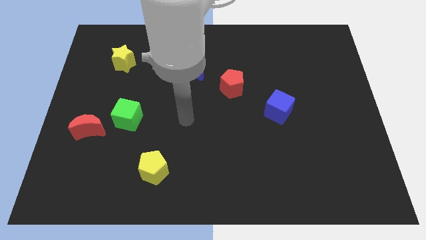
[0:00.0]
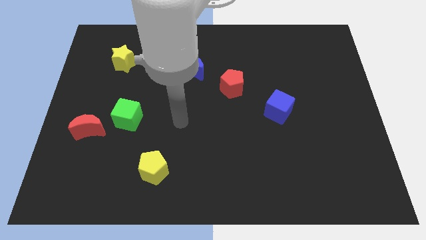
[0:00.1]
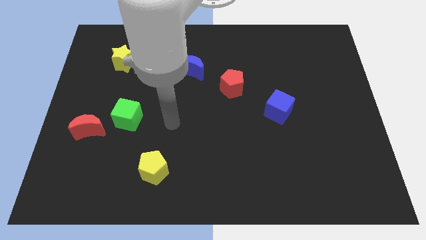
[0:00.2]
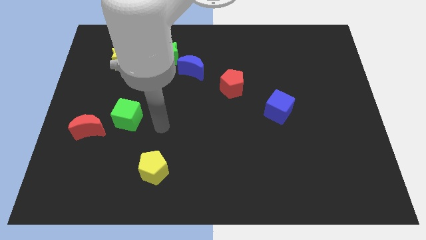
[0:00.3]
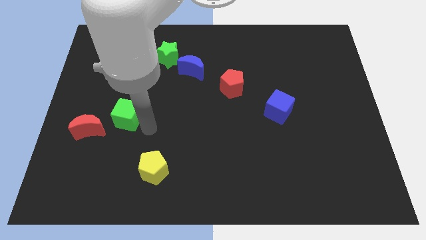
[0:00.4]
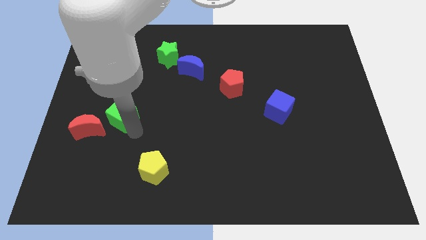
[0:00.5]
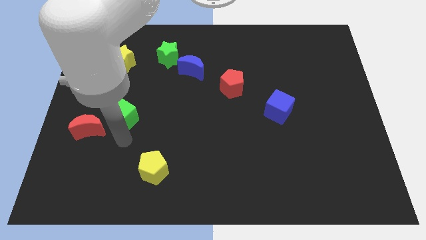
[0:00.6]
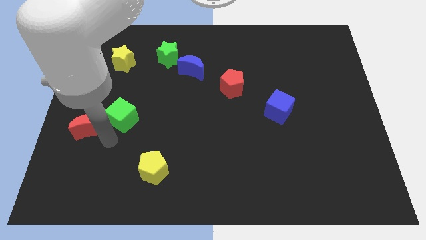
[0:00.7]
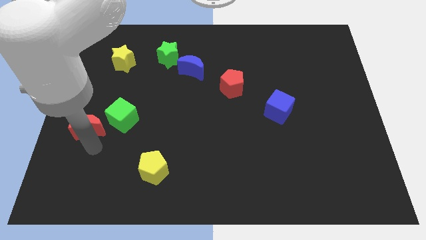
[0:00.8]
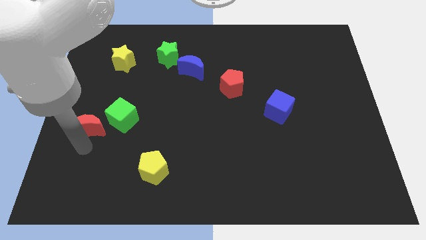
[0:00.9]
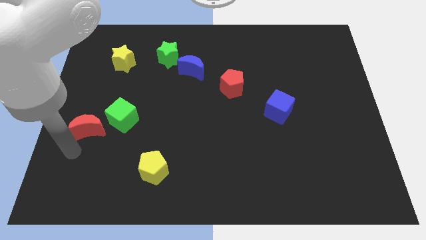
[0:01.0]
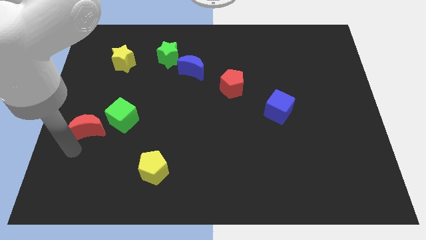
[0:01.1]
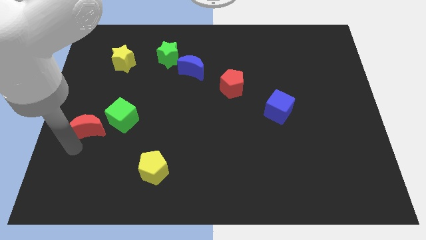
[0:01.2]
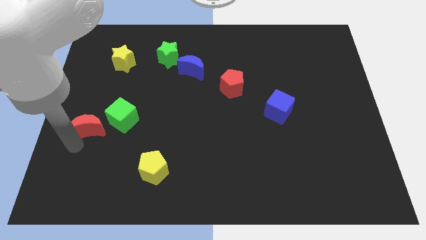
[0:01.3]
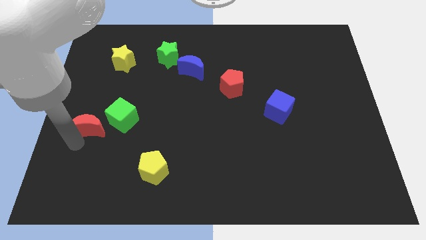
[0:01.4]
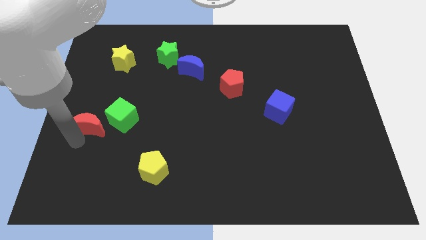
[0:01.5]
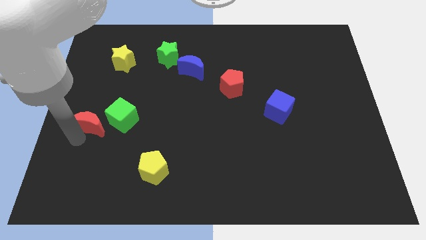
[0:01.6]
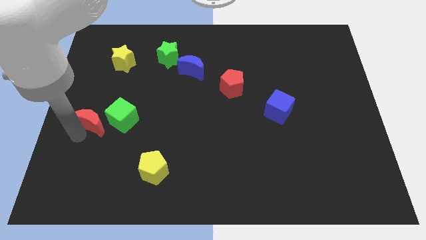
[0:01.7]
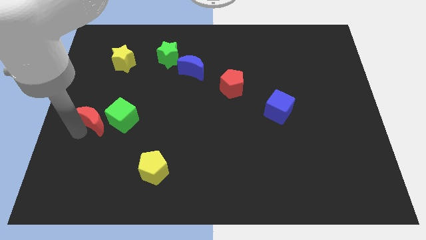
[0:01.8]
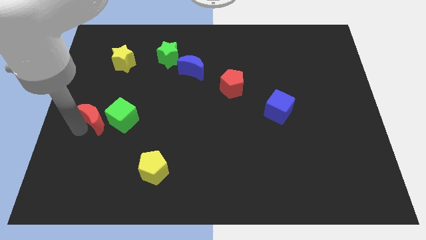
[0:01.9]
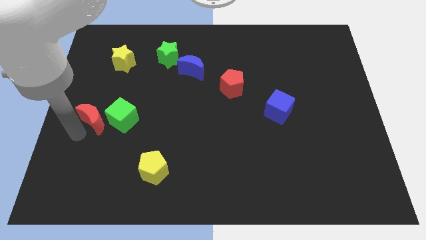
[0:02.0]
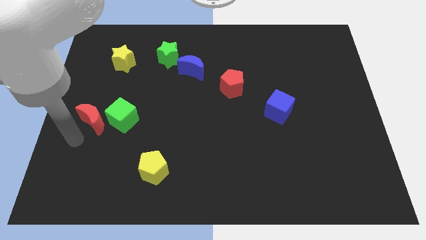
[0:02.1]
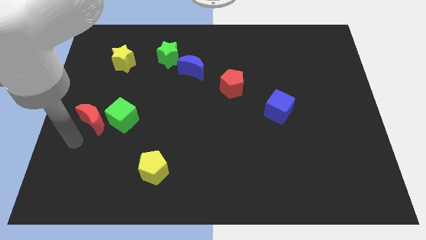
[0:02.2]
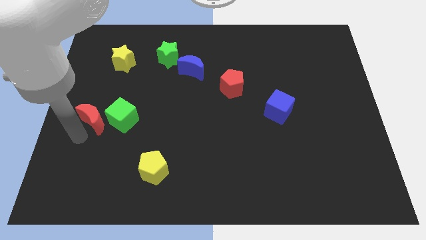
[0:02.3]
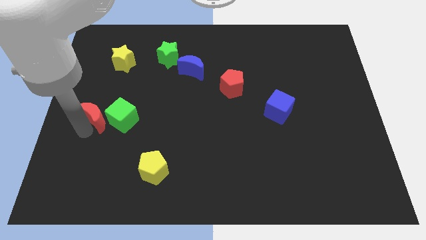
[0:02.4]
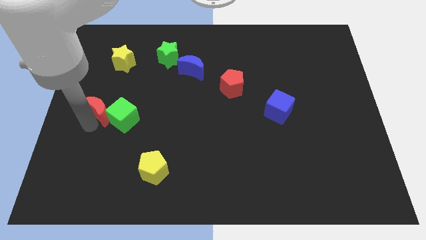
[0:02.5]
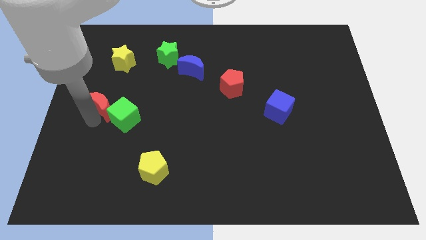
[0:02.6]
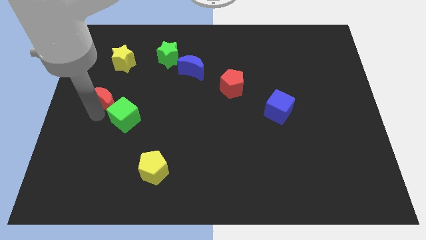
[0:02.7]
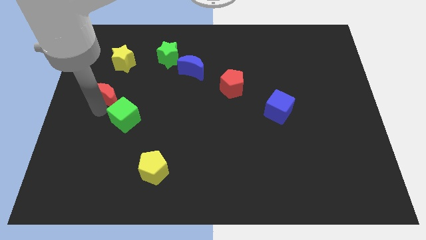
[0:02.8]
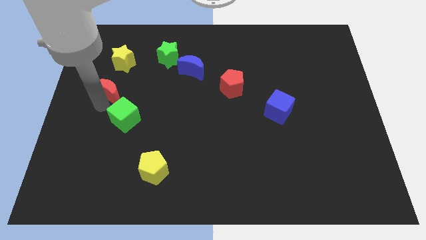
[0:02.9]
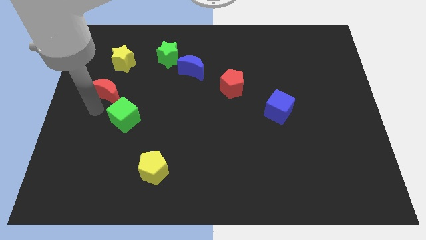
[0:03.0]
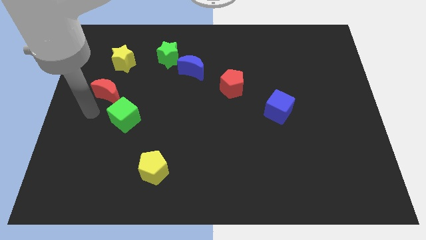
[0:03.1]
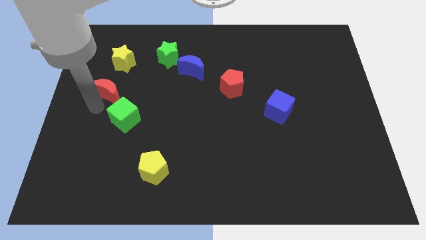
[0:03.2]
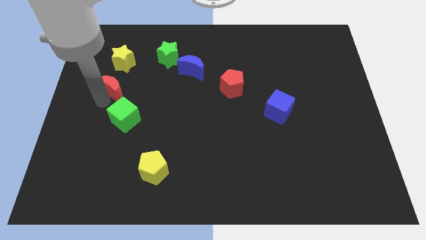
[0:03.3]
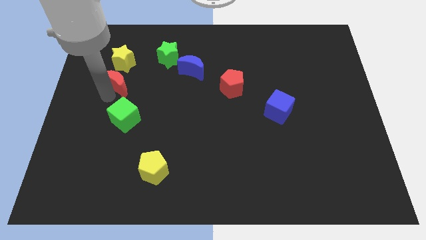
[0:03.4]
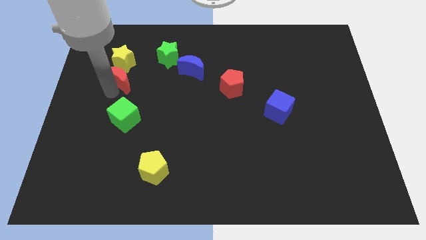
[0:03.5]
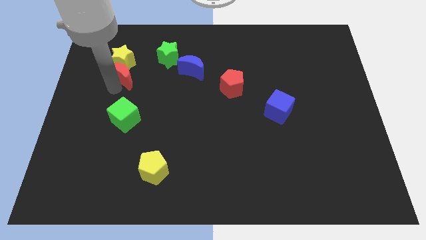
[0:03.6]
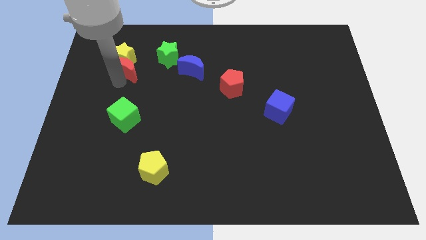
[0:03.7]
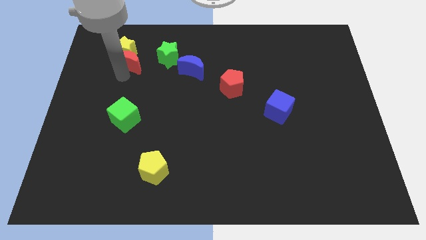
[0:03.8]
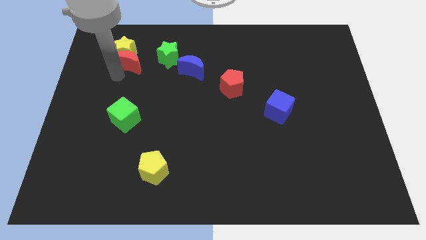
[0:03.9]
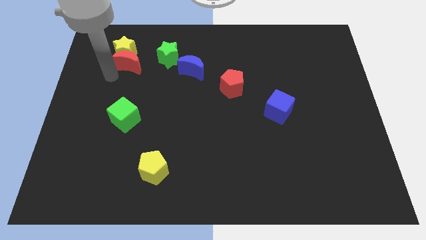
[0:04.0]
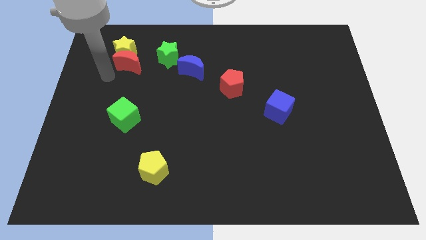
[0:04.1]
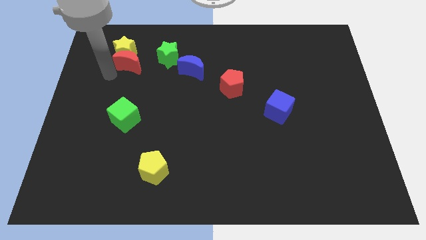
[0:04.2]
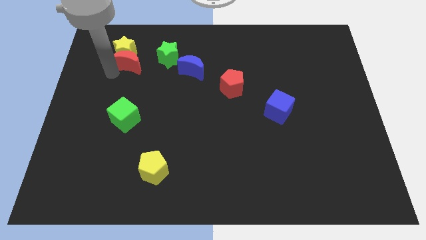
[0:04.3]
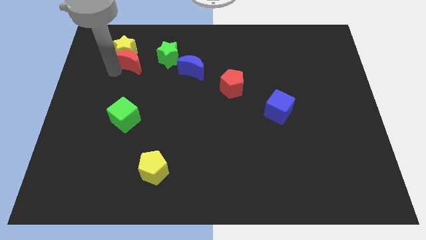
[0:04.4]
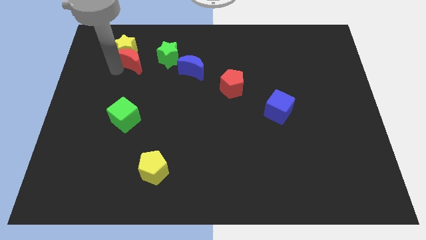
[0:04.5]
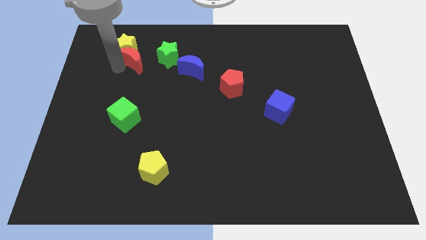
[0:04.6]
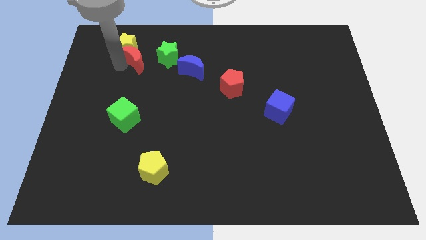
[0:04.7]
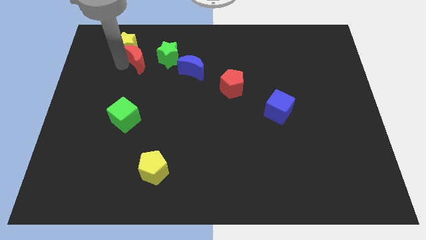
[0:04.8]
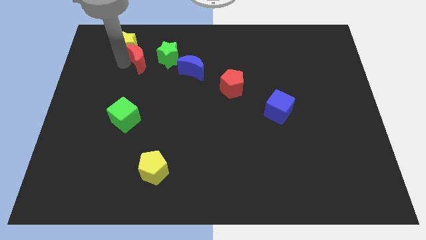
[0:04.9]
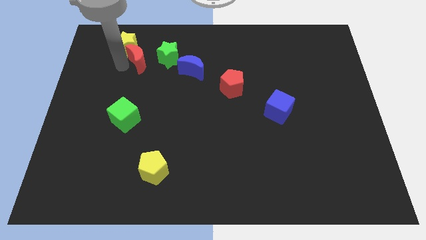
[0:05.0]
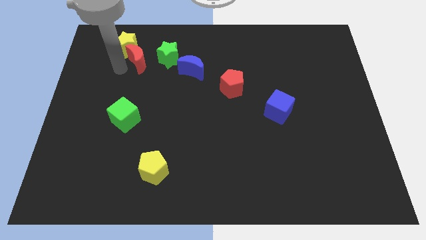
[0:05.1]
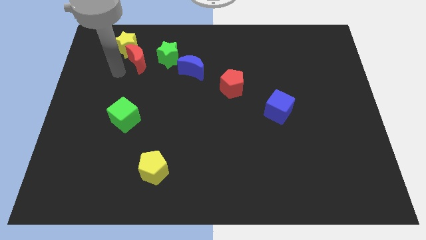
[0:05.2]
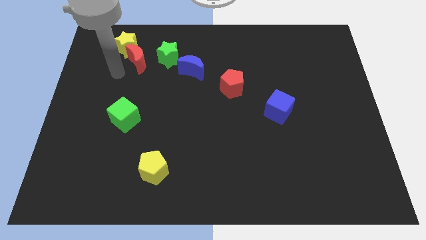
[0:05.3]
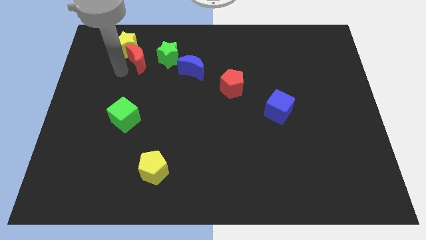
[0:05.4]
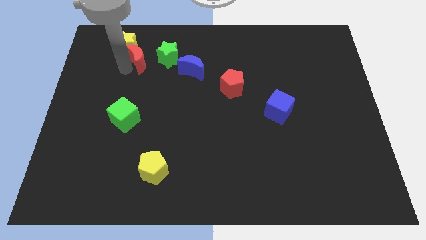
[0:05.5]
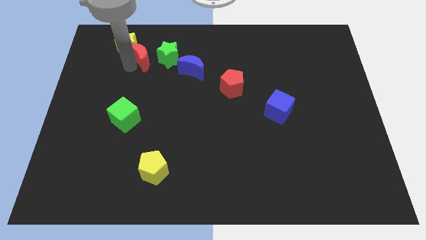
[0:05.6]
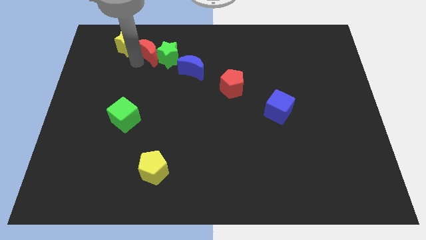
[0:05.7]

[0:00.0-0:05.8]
push the red moon diagonally up and right

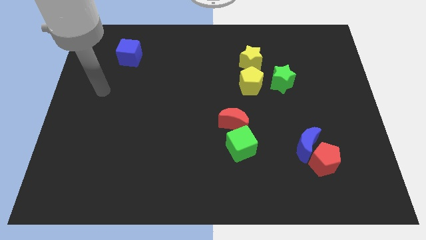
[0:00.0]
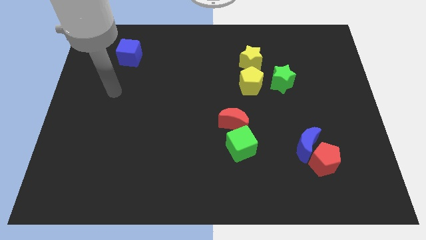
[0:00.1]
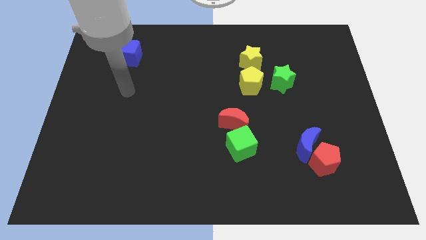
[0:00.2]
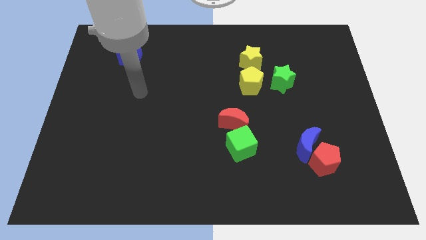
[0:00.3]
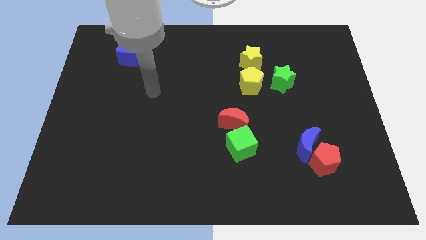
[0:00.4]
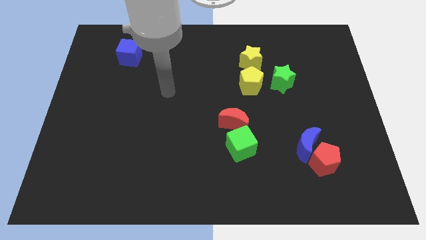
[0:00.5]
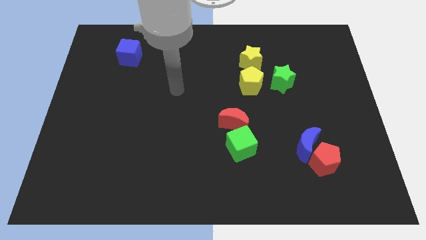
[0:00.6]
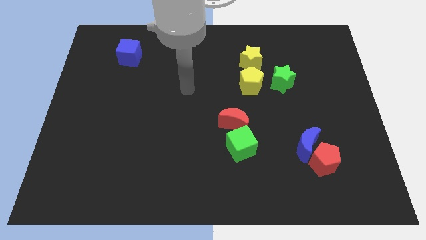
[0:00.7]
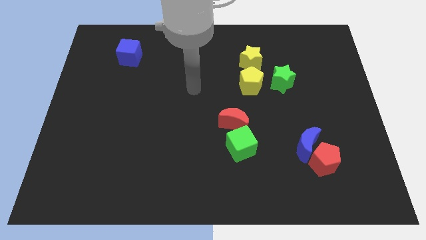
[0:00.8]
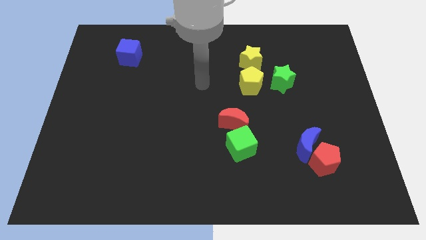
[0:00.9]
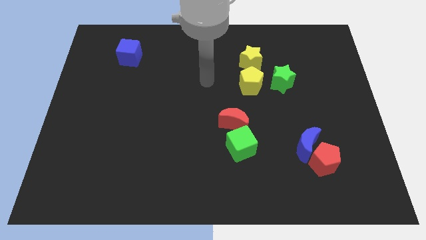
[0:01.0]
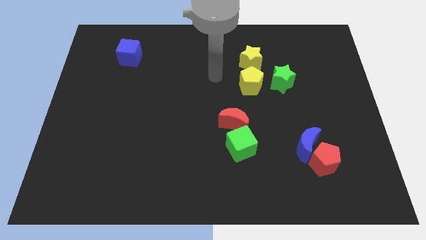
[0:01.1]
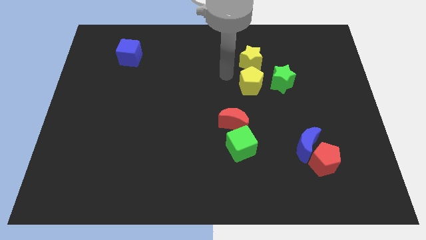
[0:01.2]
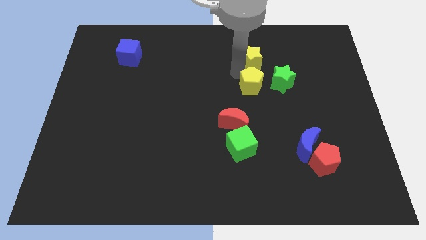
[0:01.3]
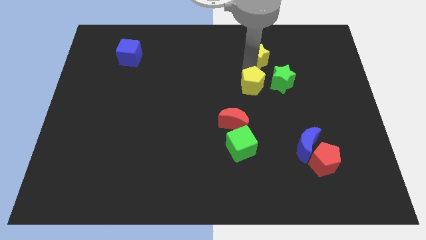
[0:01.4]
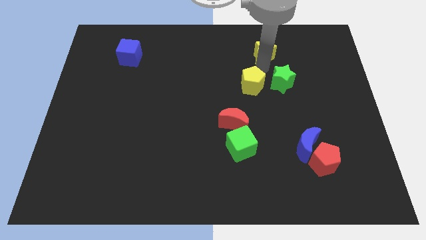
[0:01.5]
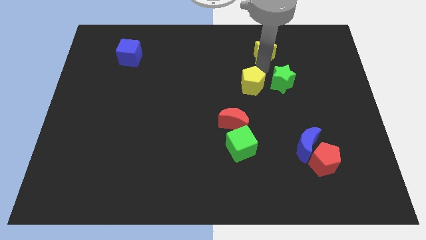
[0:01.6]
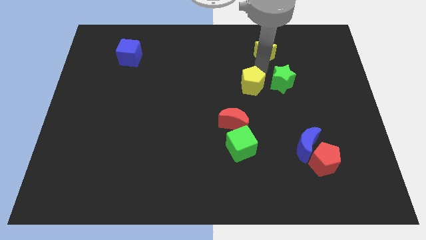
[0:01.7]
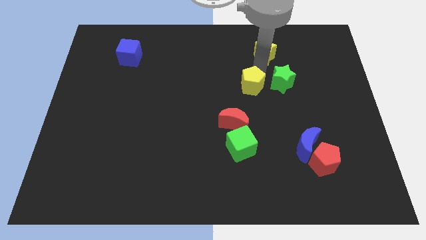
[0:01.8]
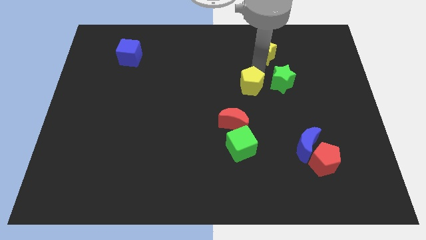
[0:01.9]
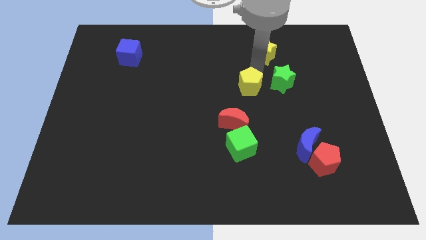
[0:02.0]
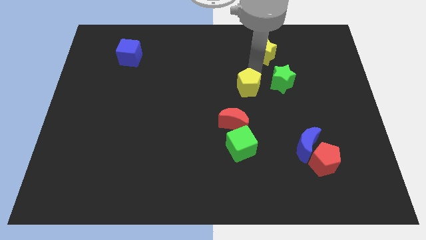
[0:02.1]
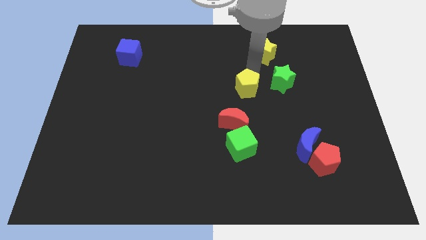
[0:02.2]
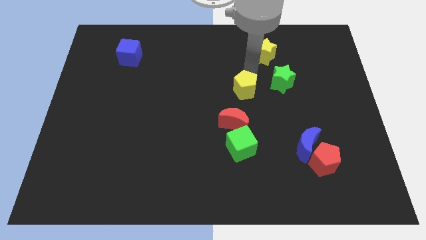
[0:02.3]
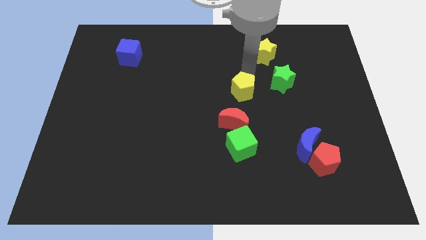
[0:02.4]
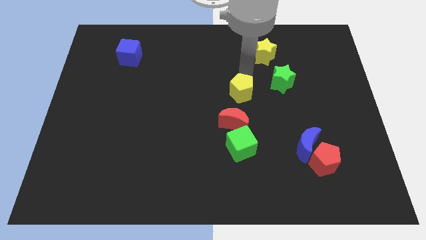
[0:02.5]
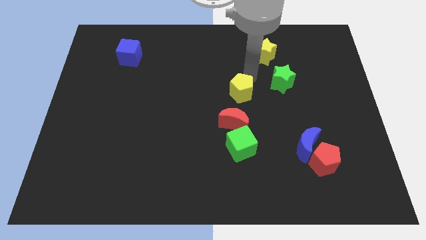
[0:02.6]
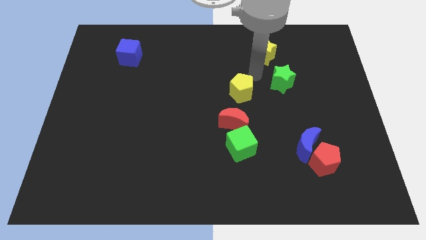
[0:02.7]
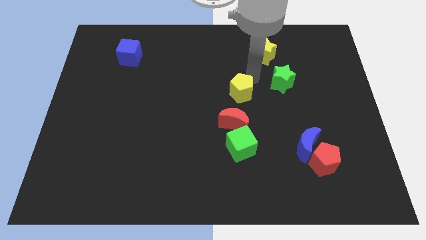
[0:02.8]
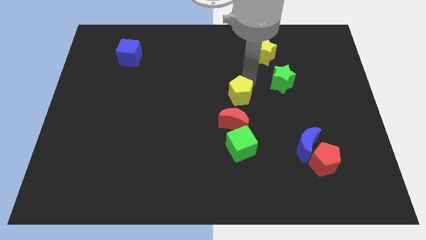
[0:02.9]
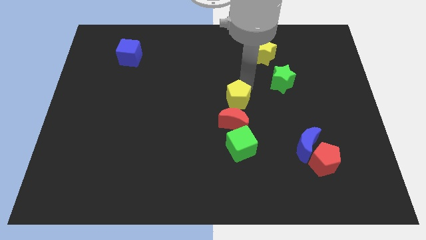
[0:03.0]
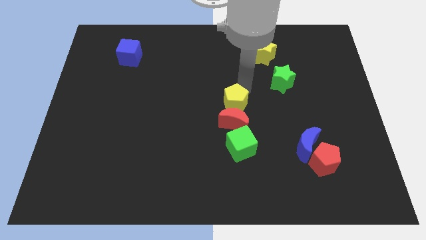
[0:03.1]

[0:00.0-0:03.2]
move the yellow pentagon down and left a bit
